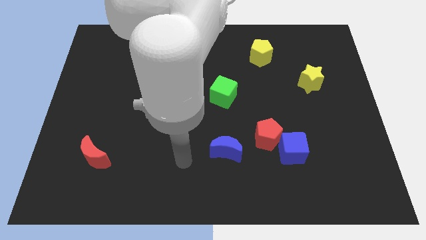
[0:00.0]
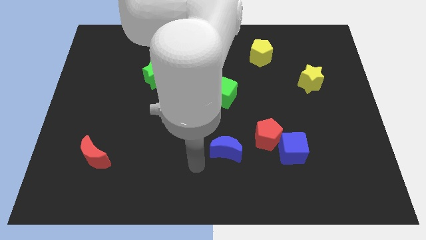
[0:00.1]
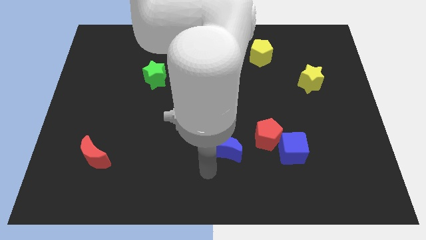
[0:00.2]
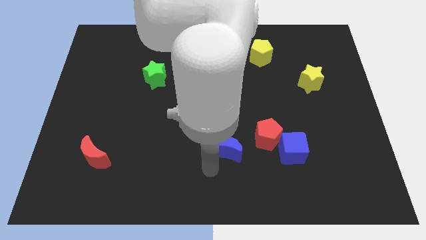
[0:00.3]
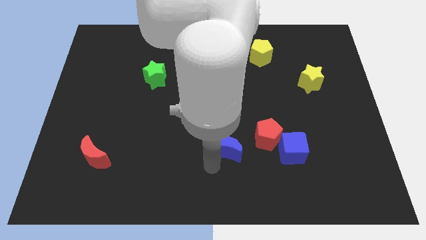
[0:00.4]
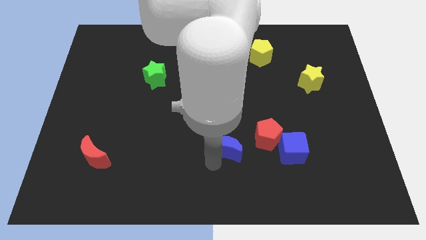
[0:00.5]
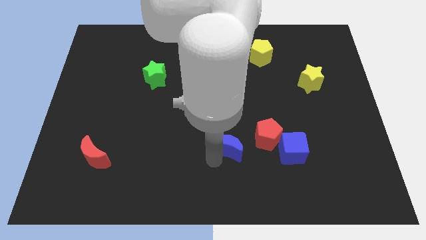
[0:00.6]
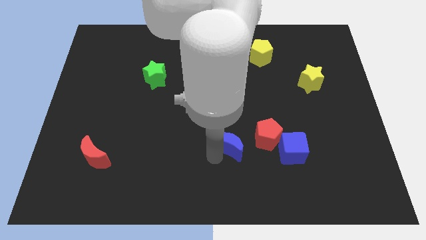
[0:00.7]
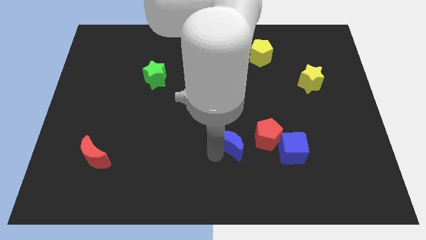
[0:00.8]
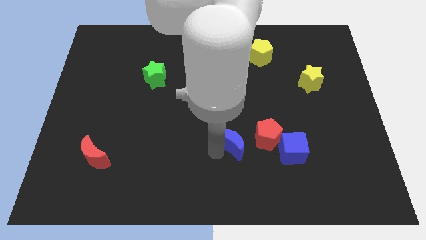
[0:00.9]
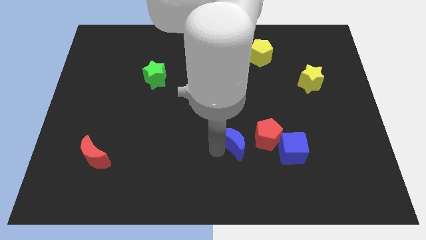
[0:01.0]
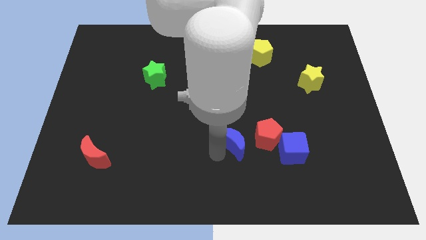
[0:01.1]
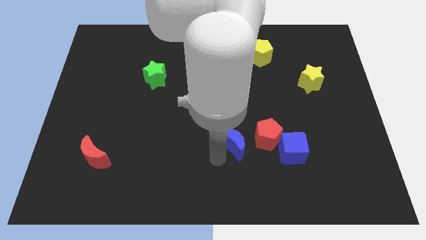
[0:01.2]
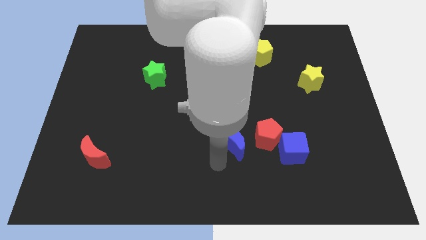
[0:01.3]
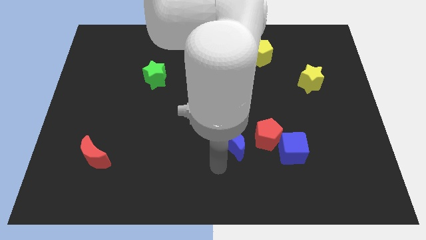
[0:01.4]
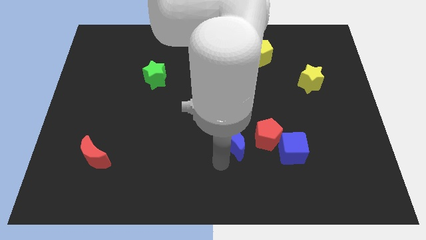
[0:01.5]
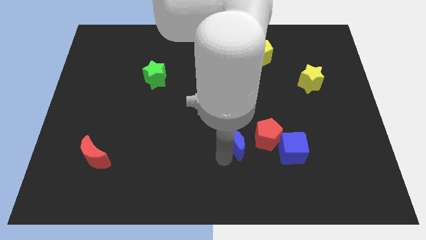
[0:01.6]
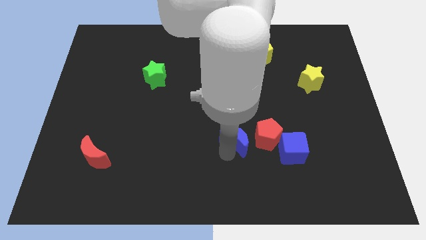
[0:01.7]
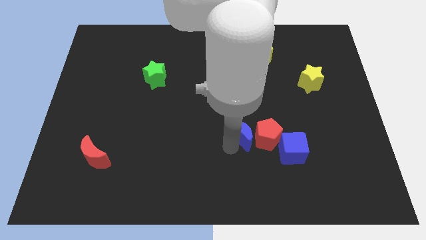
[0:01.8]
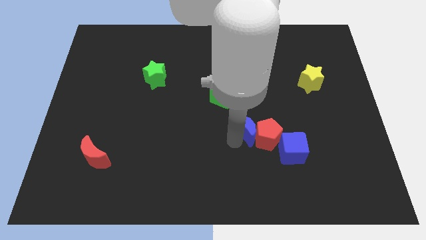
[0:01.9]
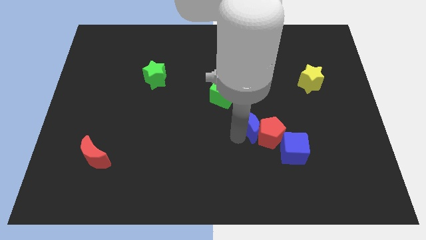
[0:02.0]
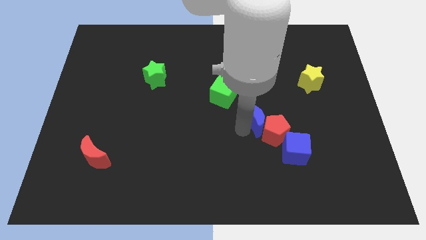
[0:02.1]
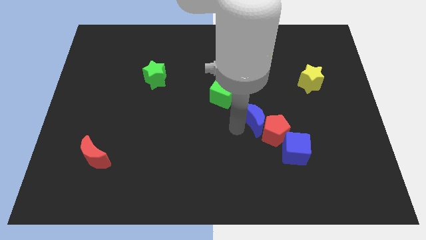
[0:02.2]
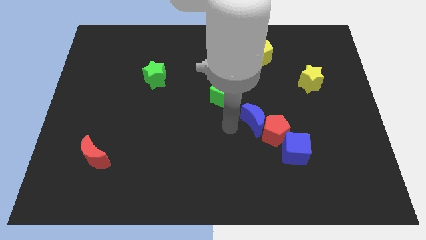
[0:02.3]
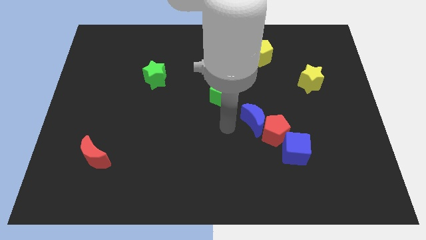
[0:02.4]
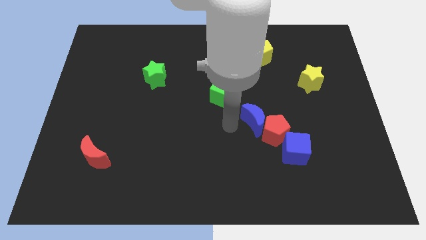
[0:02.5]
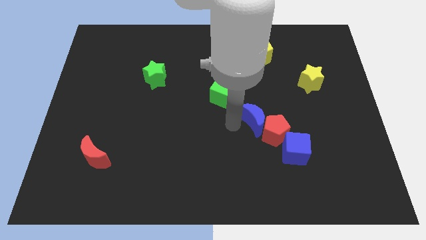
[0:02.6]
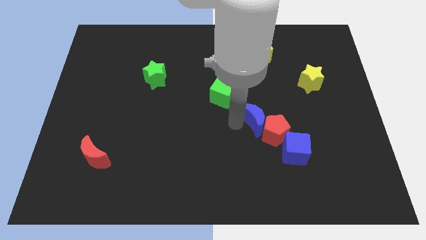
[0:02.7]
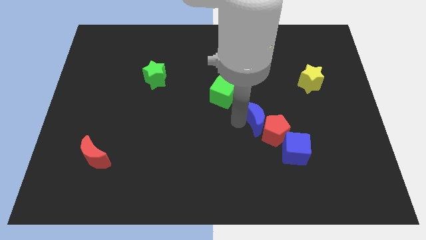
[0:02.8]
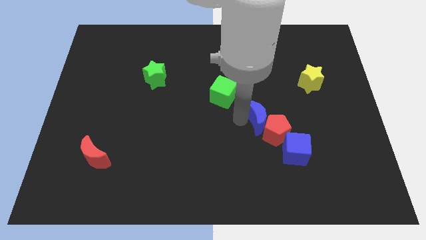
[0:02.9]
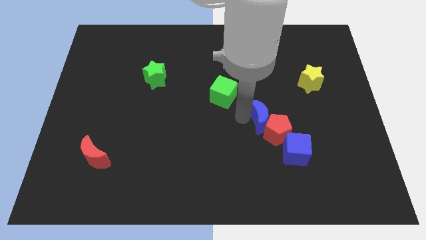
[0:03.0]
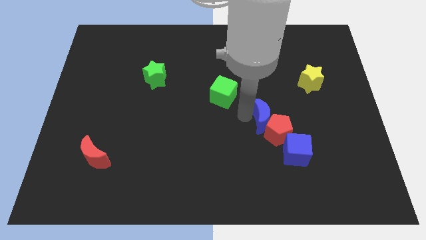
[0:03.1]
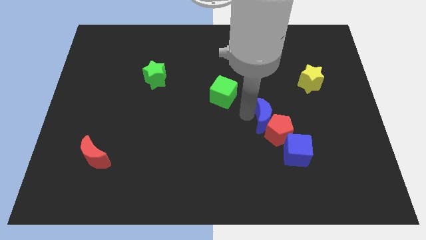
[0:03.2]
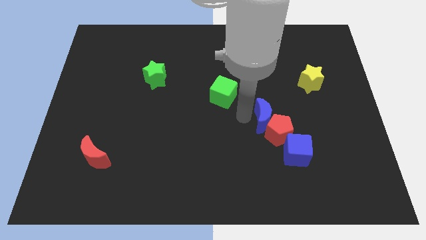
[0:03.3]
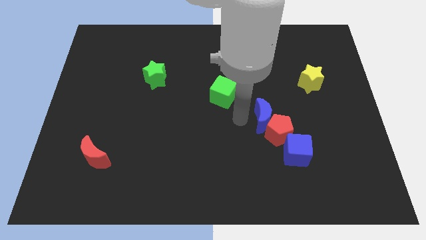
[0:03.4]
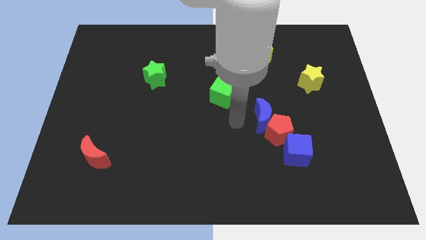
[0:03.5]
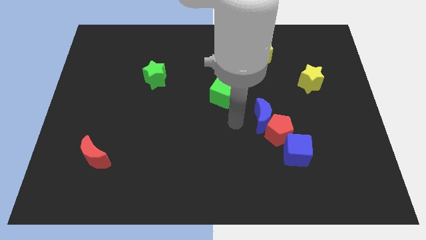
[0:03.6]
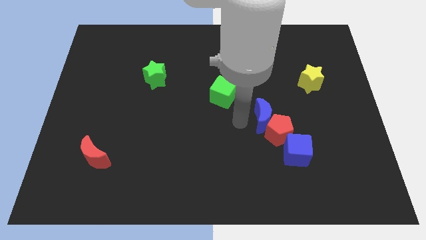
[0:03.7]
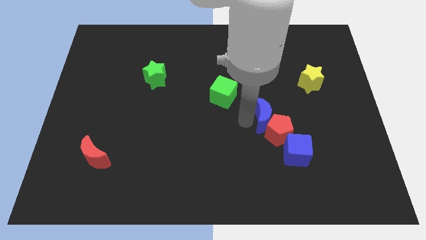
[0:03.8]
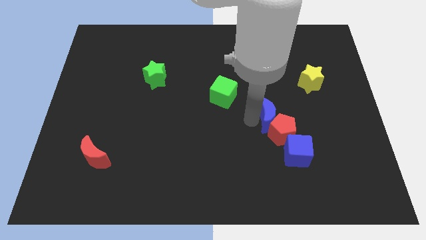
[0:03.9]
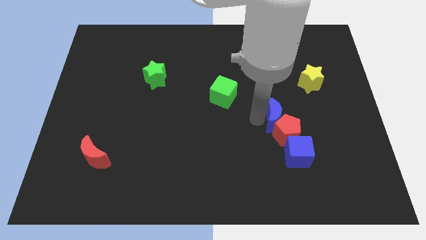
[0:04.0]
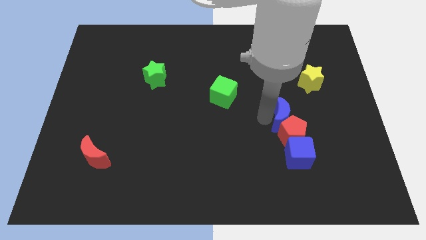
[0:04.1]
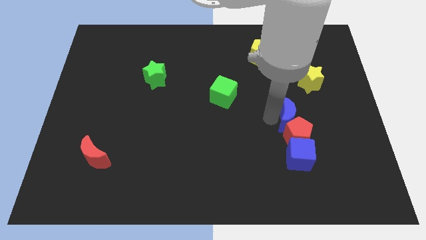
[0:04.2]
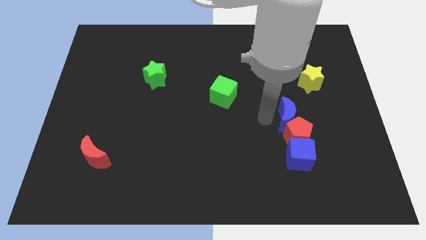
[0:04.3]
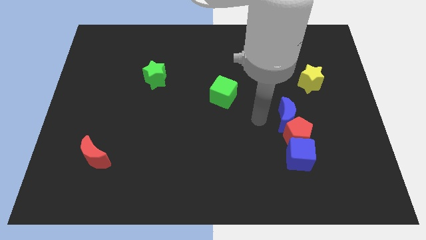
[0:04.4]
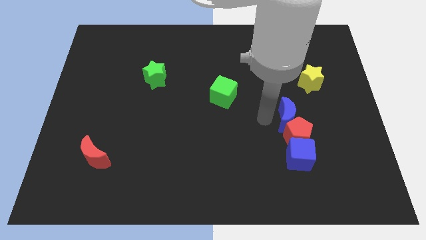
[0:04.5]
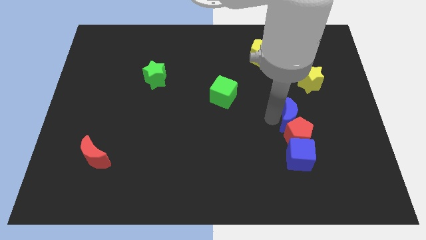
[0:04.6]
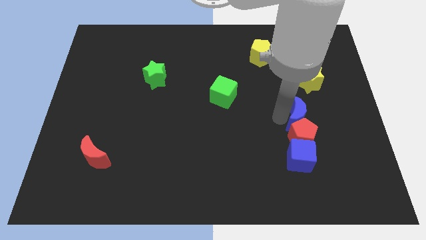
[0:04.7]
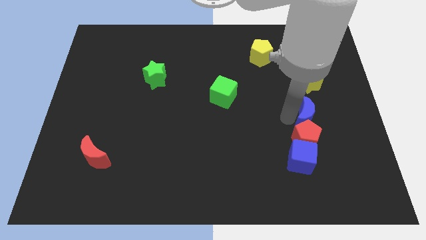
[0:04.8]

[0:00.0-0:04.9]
push the blue moon to the bottom of the yellow star

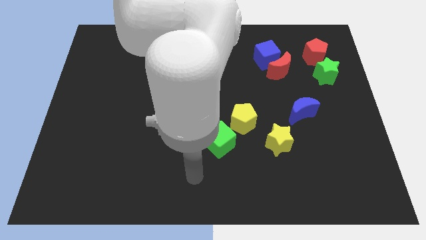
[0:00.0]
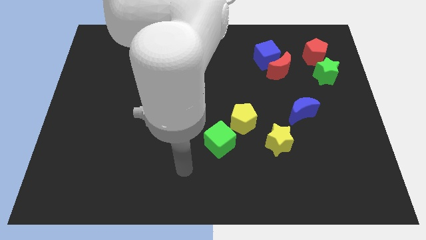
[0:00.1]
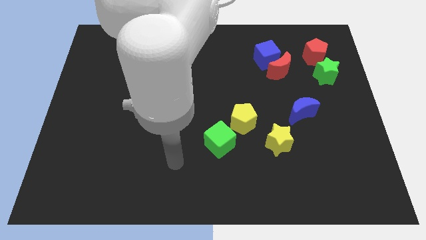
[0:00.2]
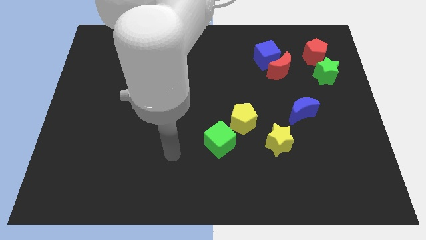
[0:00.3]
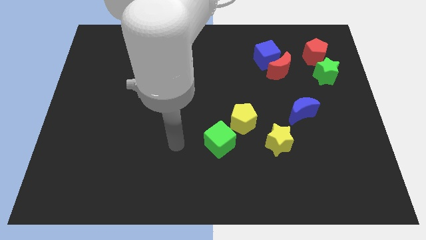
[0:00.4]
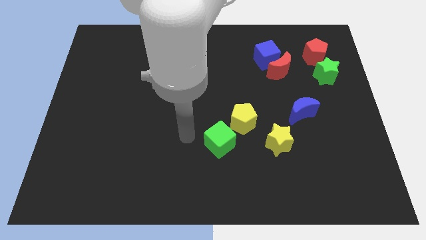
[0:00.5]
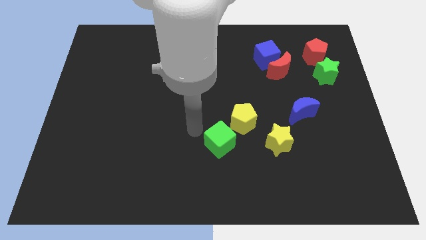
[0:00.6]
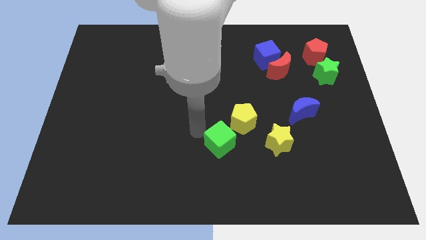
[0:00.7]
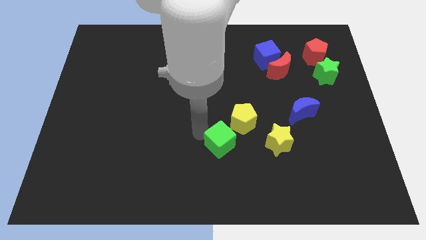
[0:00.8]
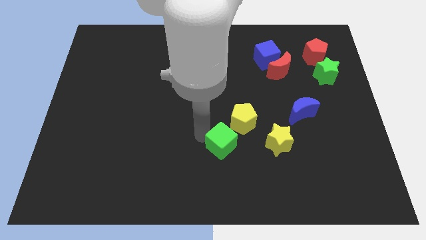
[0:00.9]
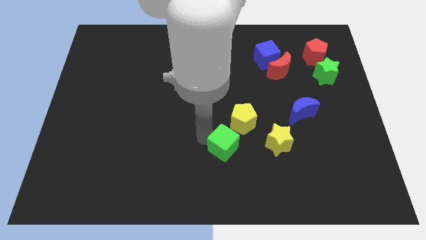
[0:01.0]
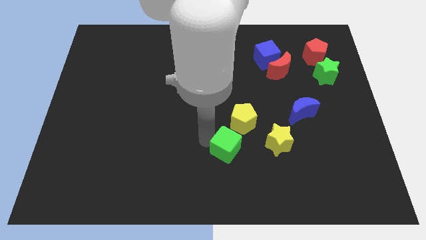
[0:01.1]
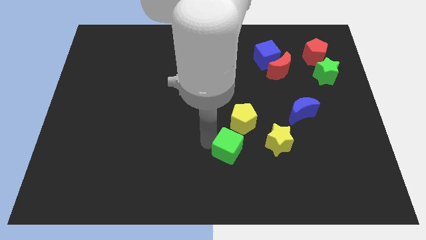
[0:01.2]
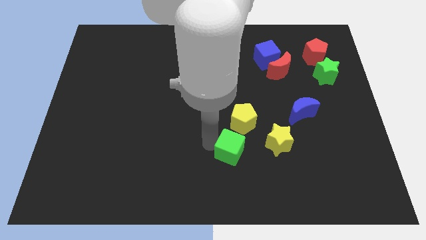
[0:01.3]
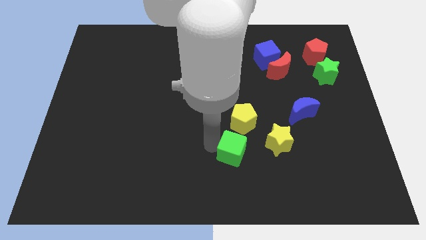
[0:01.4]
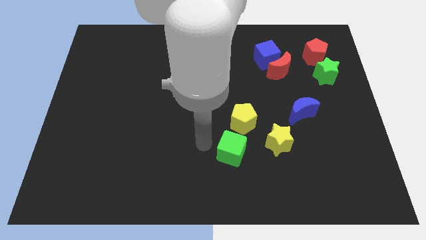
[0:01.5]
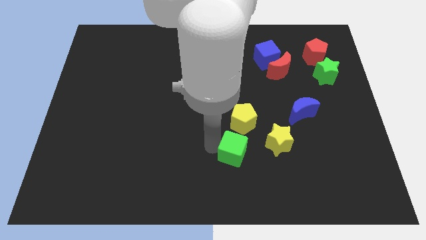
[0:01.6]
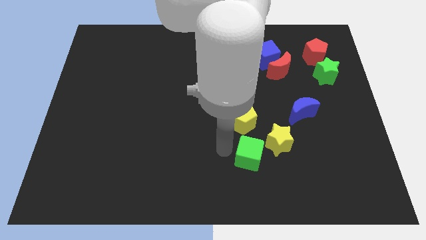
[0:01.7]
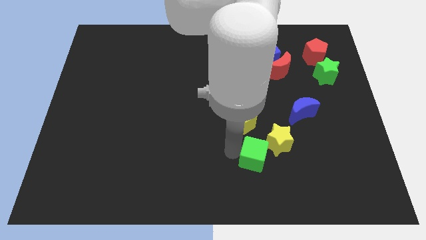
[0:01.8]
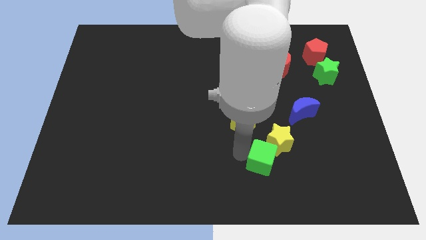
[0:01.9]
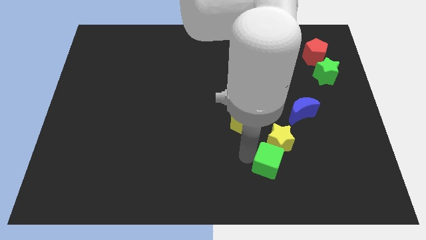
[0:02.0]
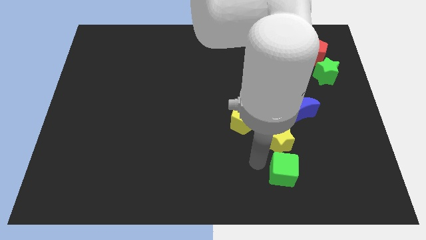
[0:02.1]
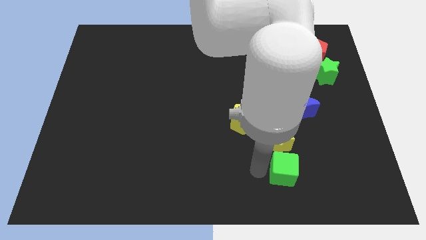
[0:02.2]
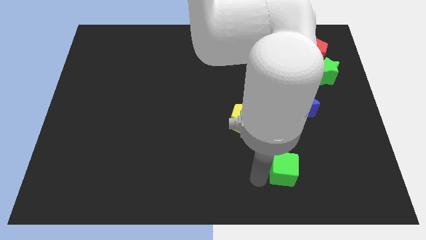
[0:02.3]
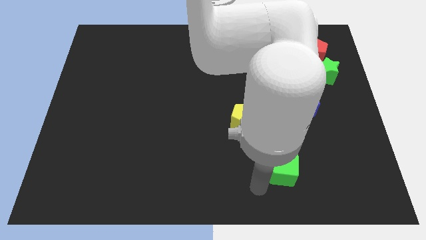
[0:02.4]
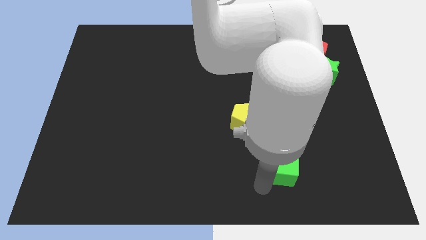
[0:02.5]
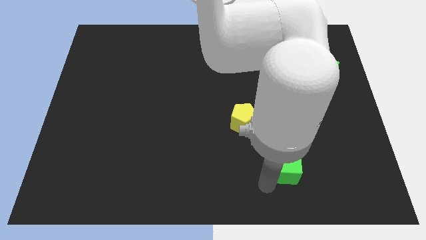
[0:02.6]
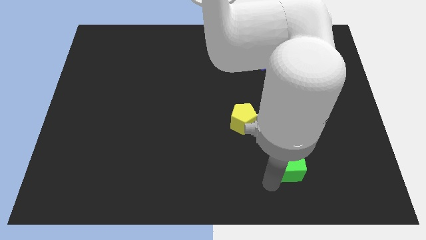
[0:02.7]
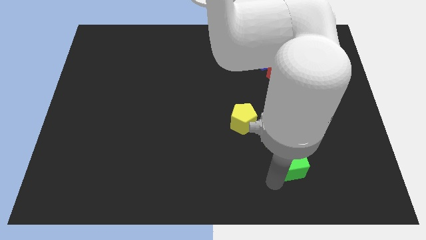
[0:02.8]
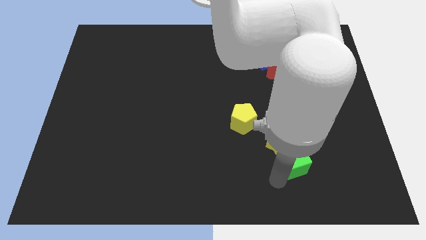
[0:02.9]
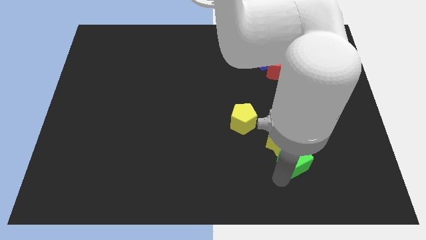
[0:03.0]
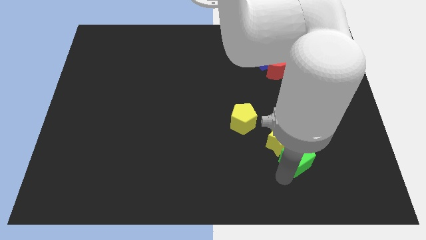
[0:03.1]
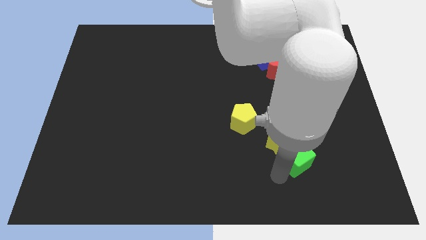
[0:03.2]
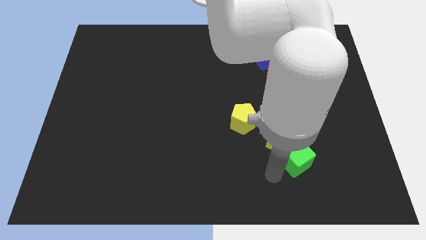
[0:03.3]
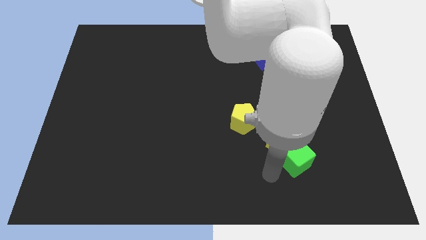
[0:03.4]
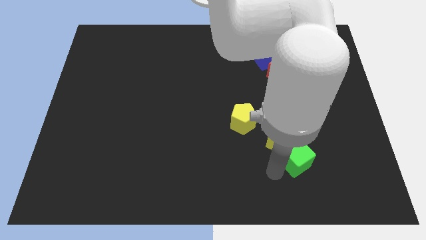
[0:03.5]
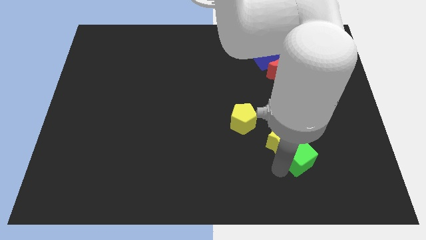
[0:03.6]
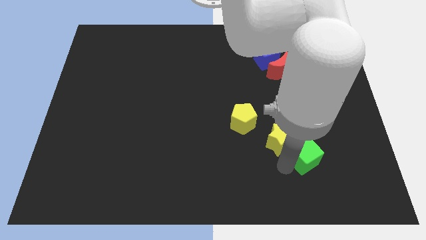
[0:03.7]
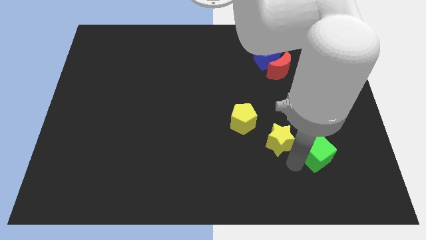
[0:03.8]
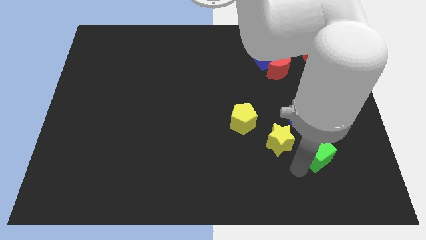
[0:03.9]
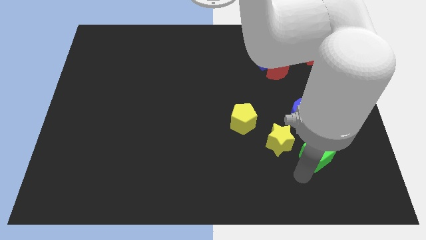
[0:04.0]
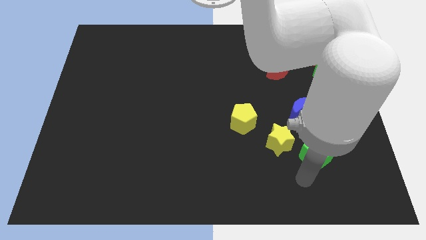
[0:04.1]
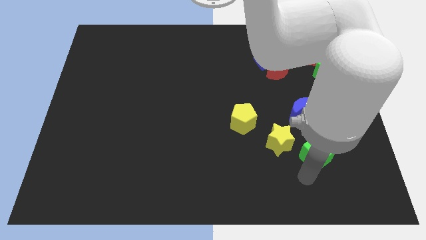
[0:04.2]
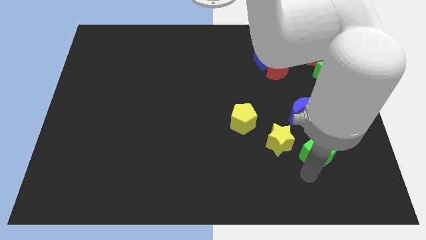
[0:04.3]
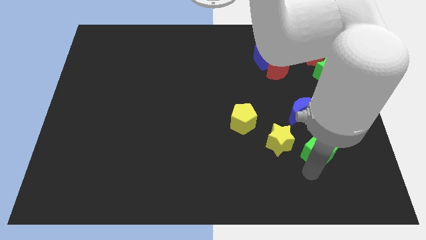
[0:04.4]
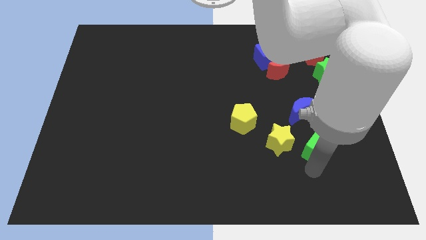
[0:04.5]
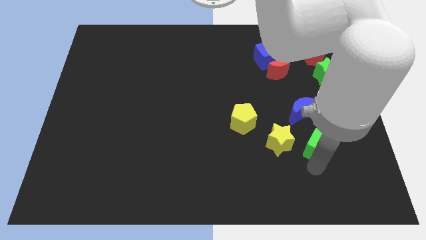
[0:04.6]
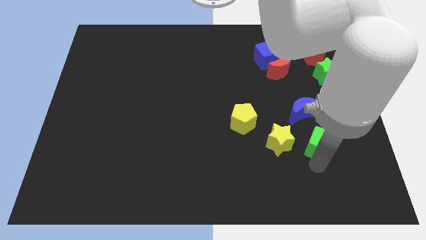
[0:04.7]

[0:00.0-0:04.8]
push the green cube diagonally down and to the right of the blue moon
